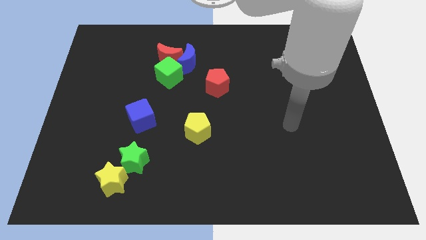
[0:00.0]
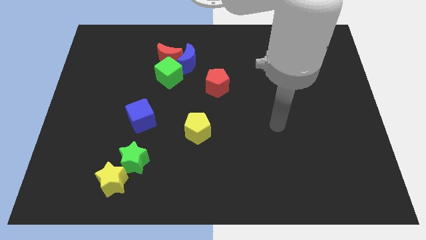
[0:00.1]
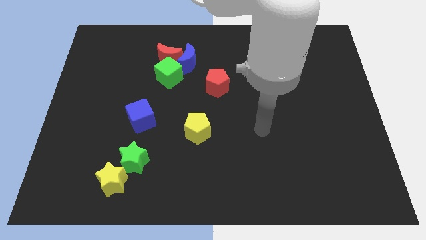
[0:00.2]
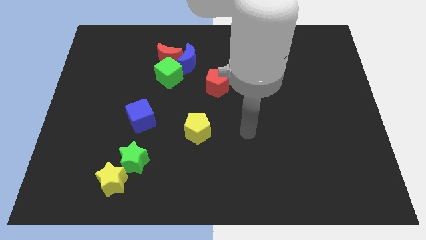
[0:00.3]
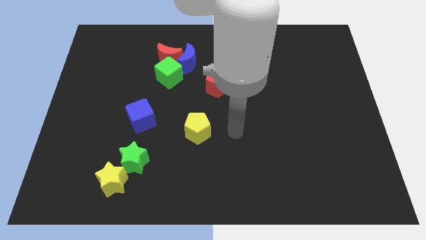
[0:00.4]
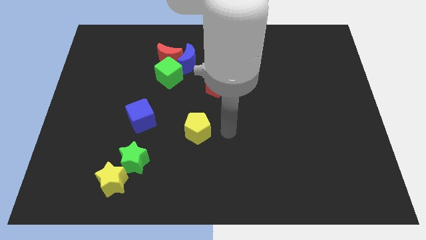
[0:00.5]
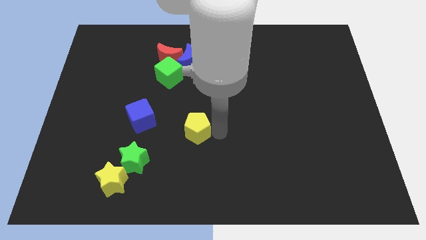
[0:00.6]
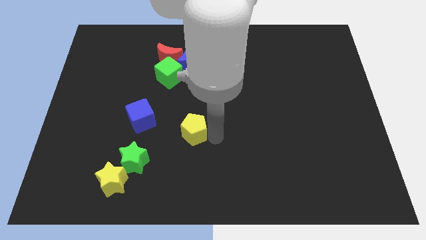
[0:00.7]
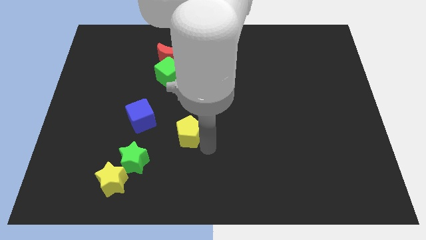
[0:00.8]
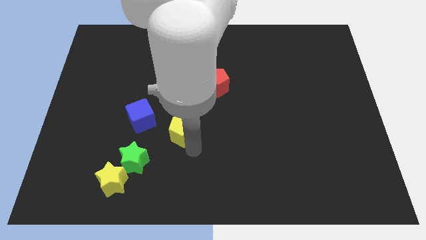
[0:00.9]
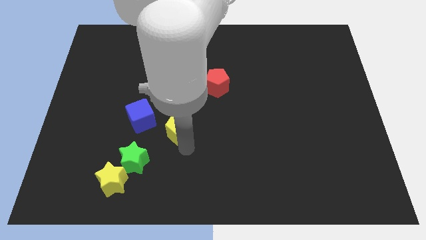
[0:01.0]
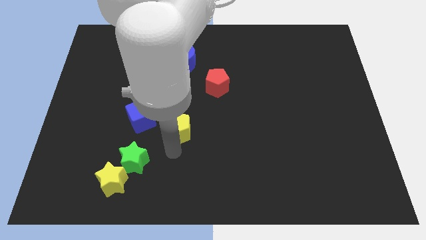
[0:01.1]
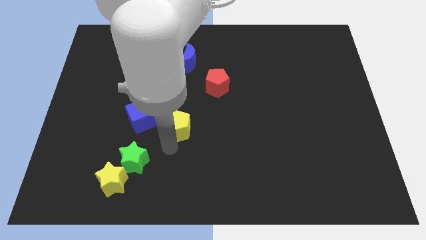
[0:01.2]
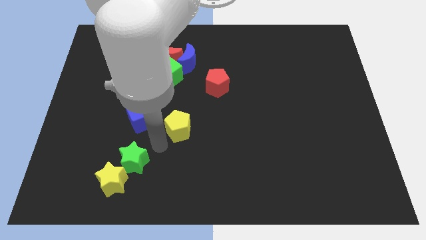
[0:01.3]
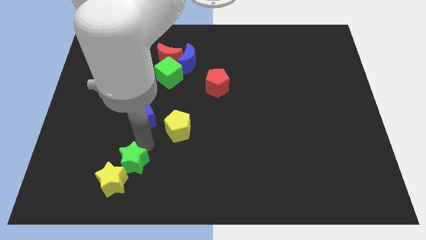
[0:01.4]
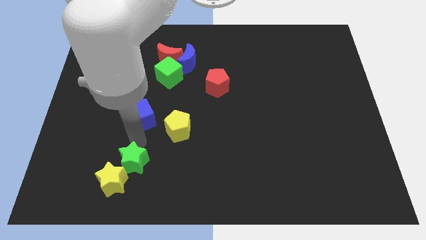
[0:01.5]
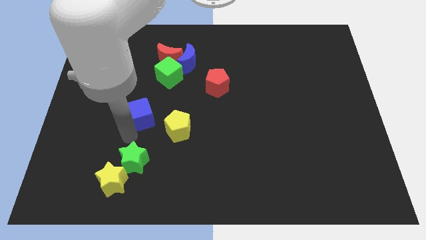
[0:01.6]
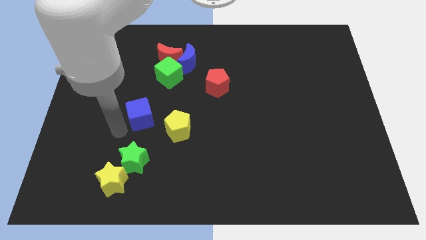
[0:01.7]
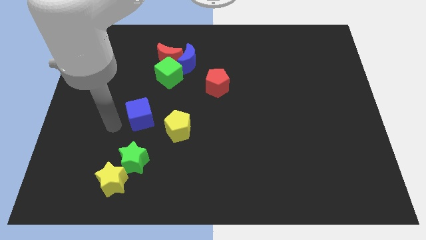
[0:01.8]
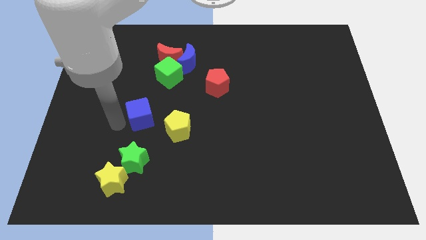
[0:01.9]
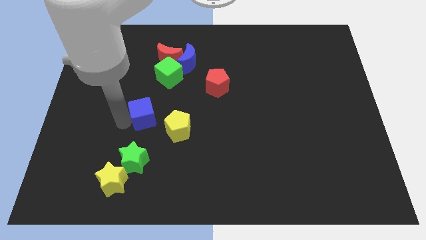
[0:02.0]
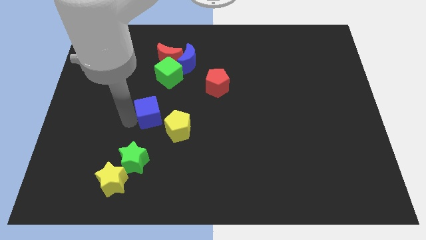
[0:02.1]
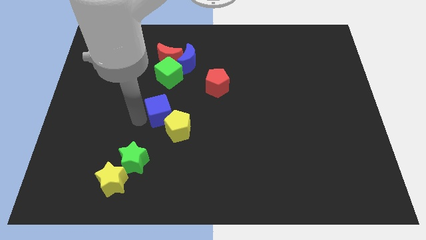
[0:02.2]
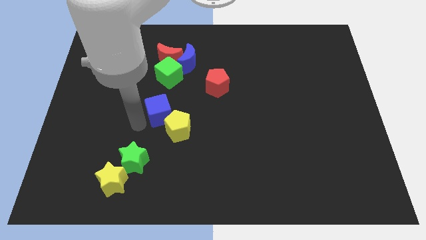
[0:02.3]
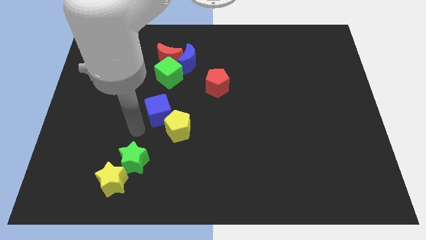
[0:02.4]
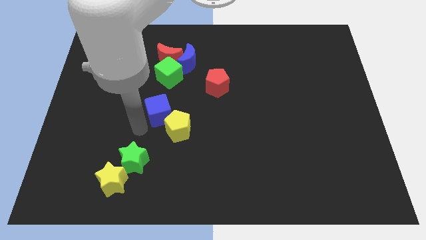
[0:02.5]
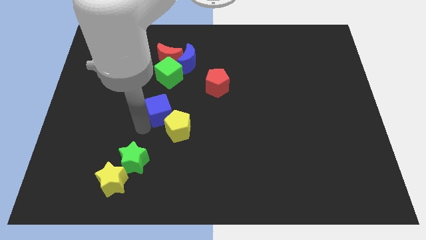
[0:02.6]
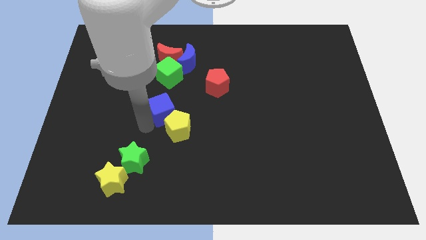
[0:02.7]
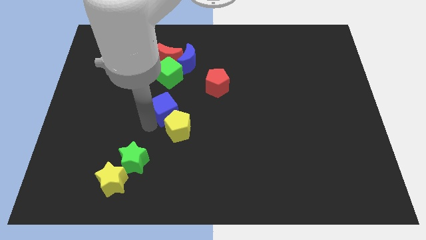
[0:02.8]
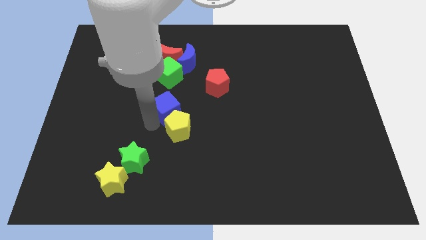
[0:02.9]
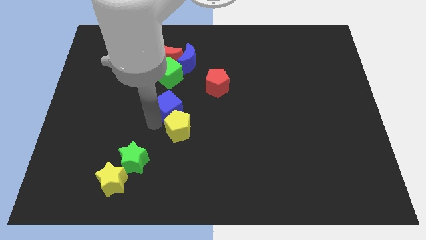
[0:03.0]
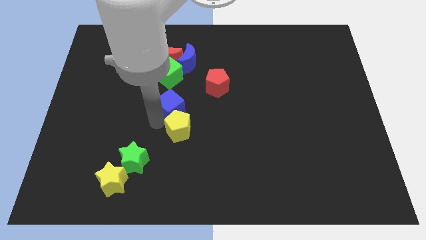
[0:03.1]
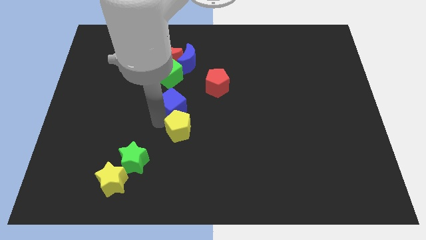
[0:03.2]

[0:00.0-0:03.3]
move the blue cube upwards and to the right a bit

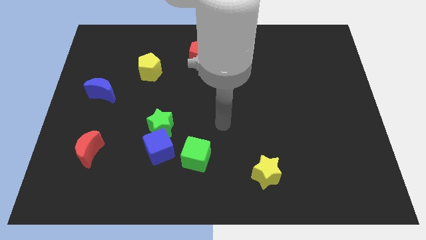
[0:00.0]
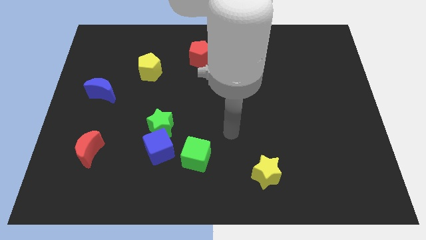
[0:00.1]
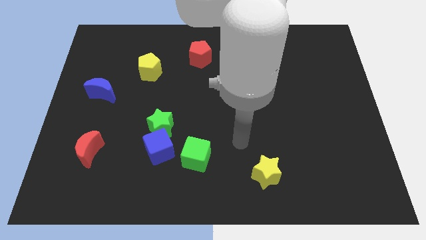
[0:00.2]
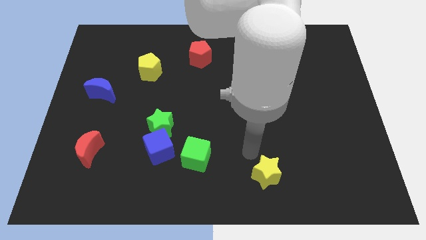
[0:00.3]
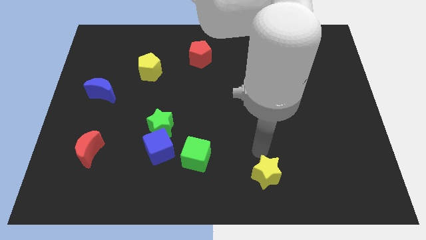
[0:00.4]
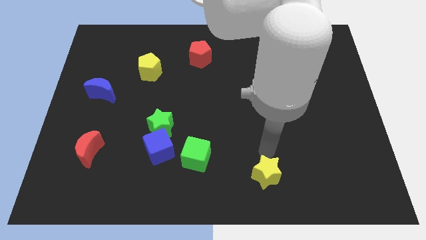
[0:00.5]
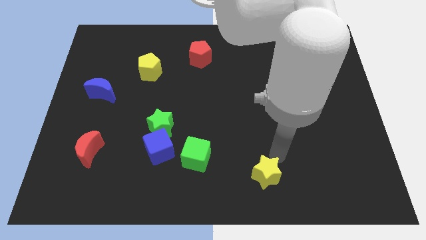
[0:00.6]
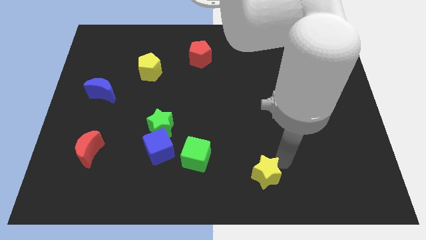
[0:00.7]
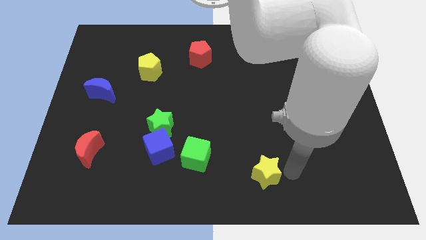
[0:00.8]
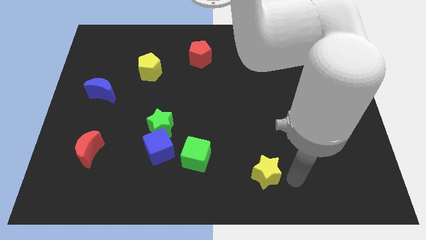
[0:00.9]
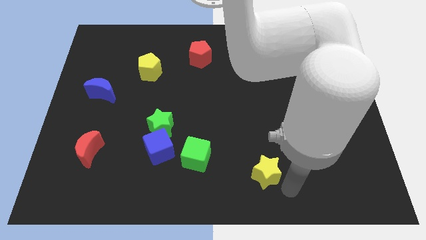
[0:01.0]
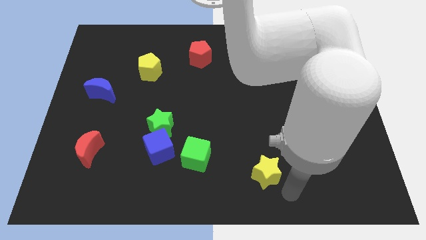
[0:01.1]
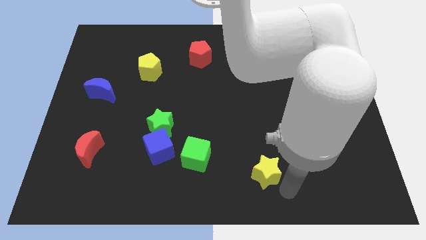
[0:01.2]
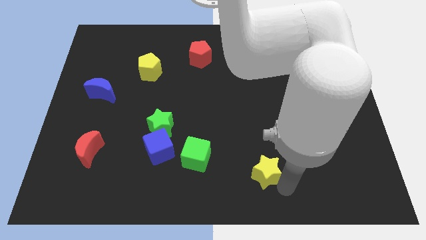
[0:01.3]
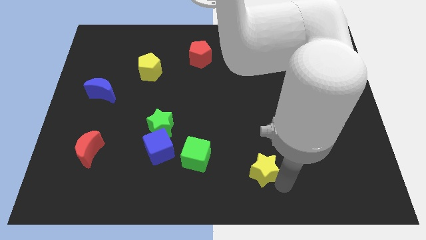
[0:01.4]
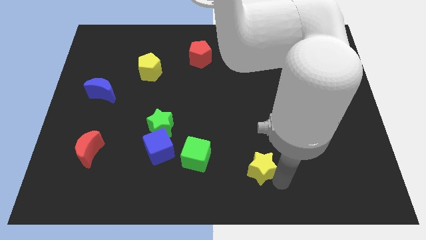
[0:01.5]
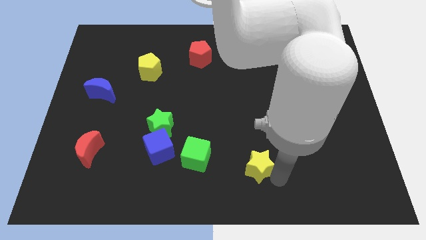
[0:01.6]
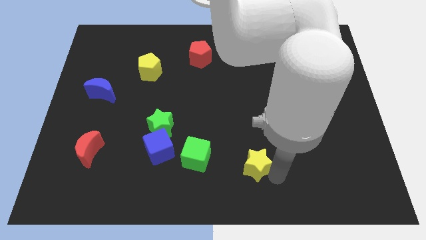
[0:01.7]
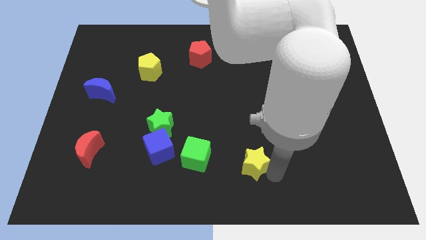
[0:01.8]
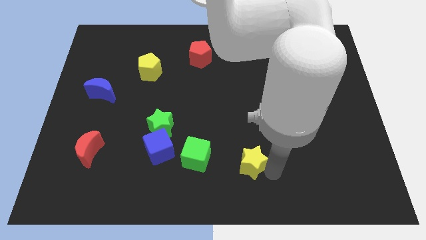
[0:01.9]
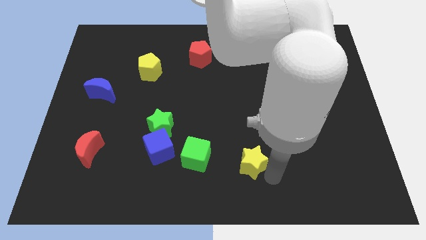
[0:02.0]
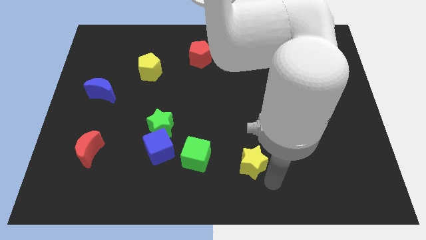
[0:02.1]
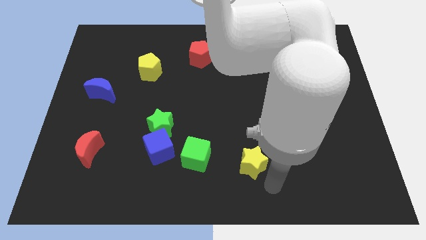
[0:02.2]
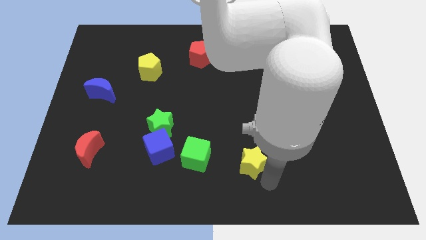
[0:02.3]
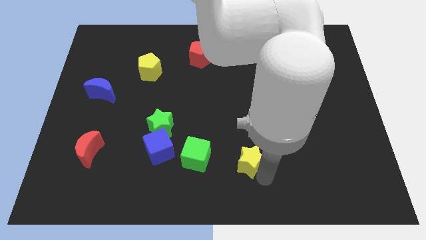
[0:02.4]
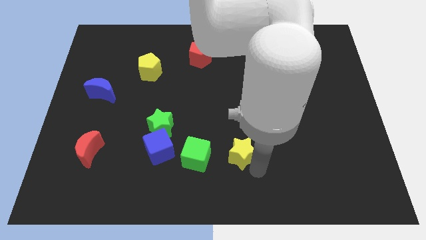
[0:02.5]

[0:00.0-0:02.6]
slightly slide the yellow star diagonally up and to the left

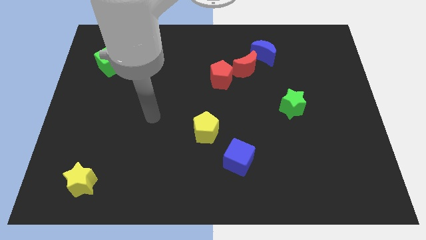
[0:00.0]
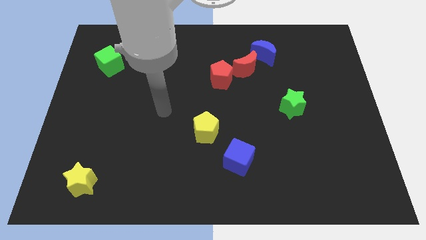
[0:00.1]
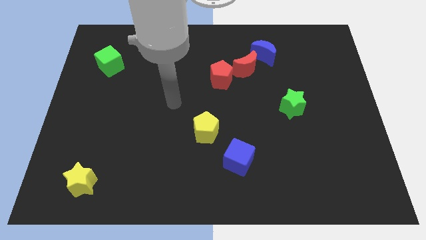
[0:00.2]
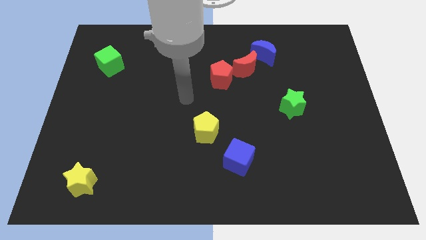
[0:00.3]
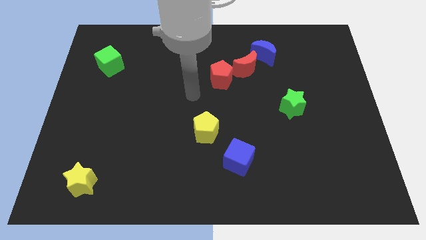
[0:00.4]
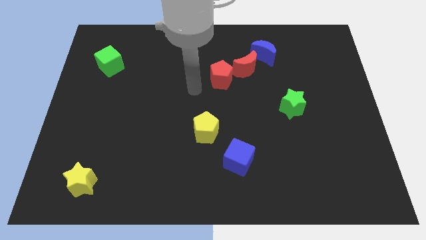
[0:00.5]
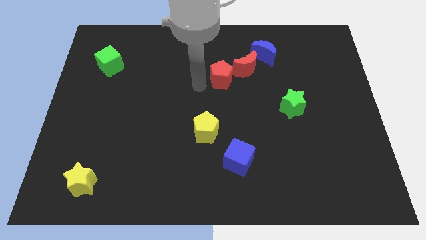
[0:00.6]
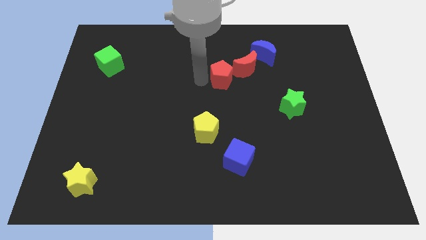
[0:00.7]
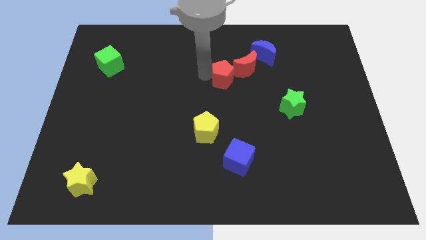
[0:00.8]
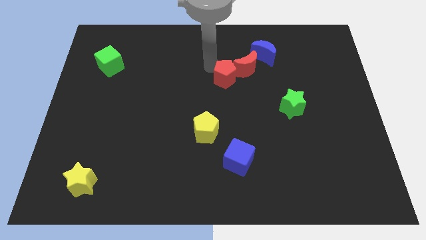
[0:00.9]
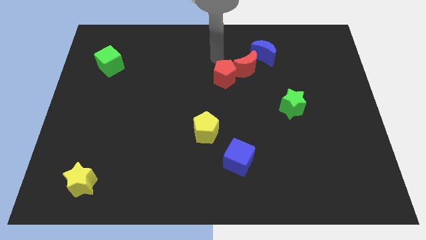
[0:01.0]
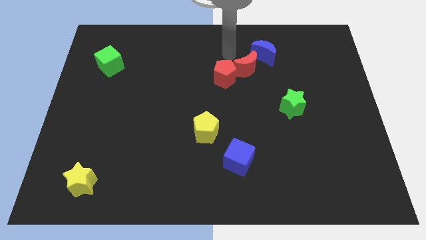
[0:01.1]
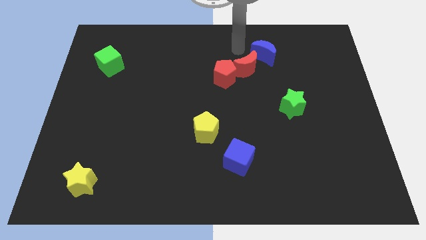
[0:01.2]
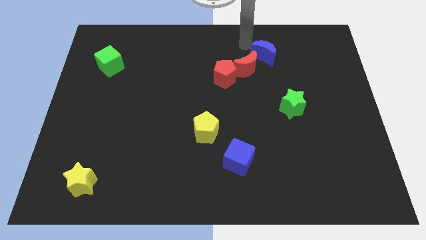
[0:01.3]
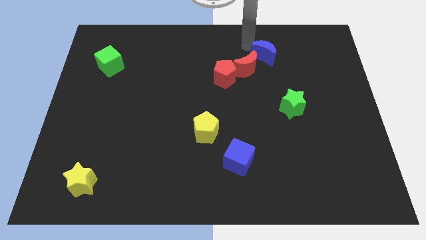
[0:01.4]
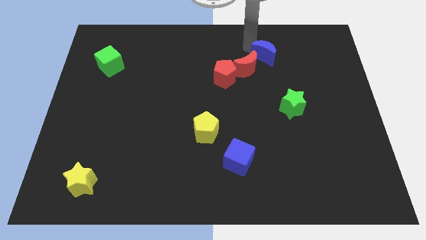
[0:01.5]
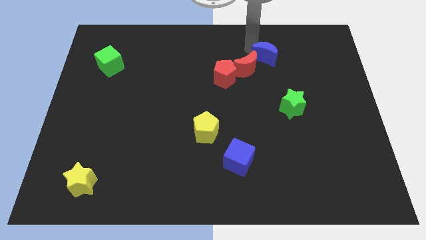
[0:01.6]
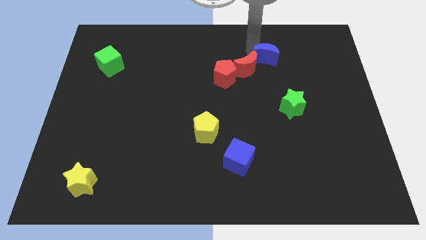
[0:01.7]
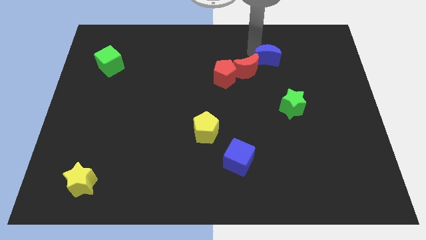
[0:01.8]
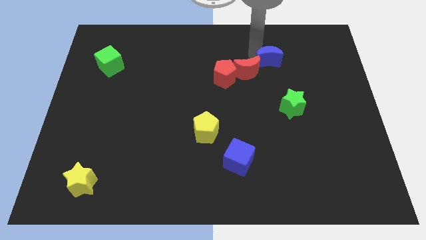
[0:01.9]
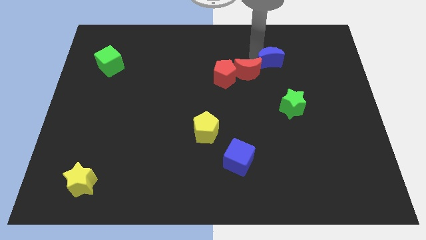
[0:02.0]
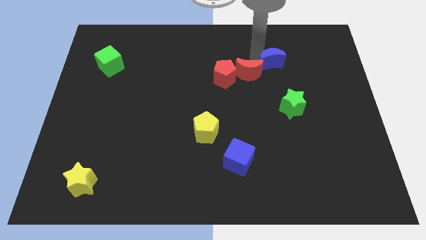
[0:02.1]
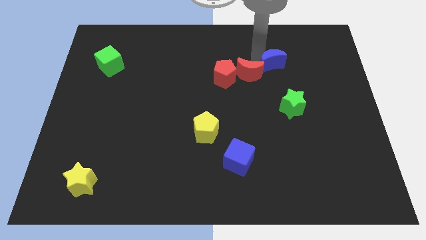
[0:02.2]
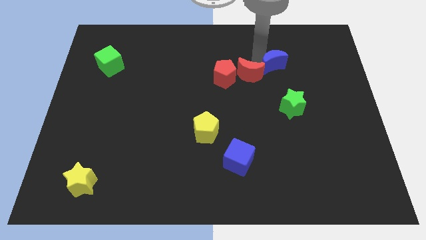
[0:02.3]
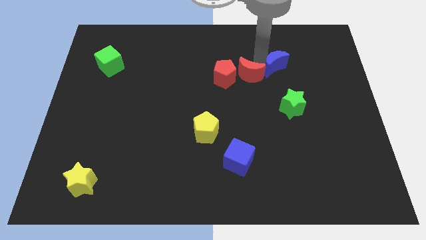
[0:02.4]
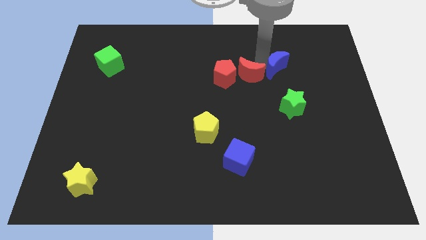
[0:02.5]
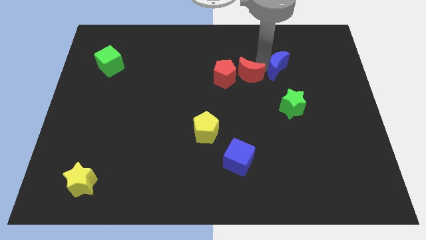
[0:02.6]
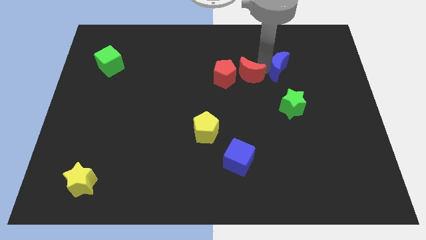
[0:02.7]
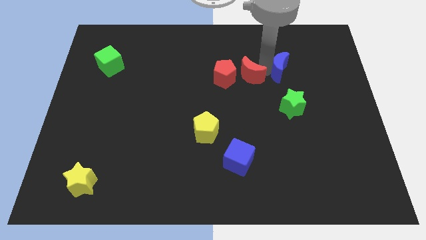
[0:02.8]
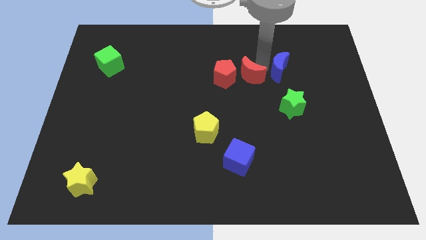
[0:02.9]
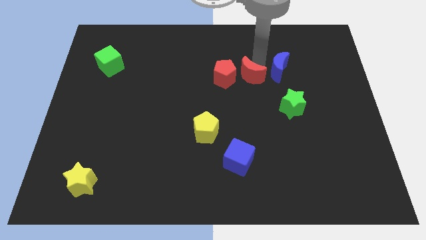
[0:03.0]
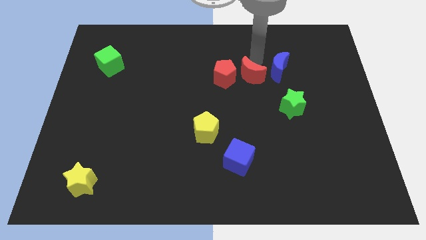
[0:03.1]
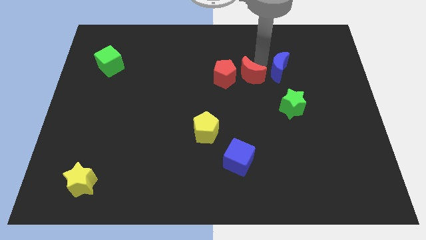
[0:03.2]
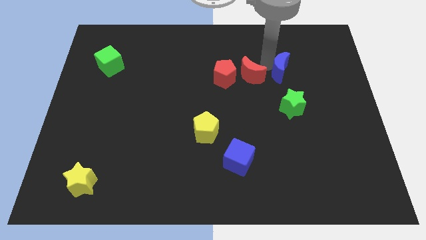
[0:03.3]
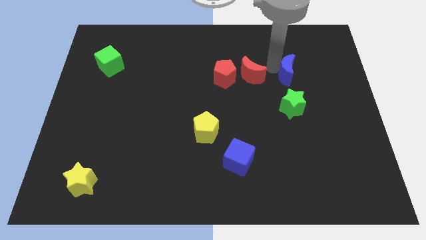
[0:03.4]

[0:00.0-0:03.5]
slightly push the blue moon diagonally downwards and right
